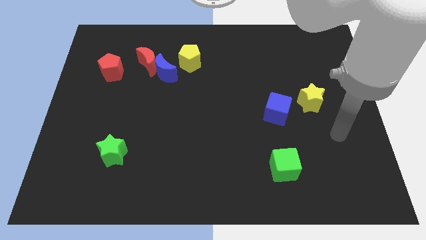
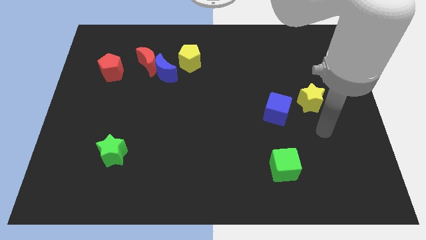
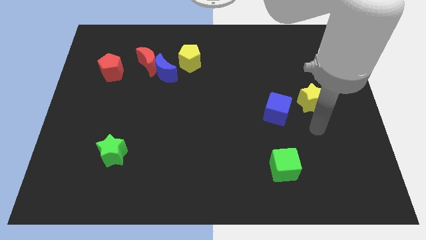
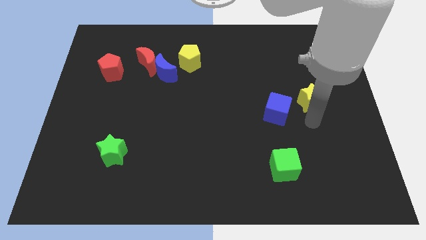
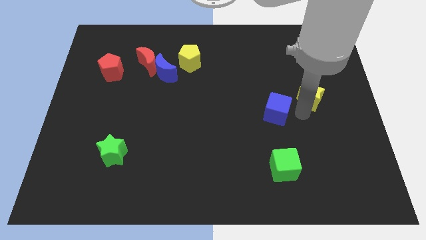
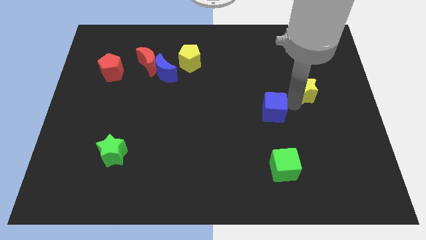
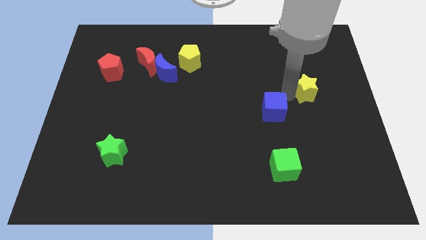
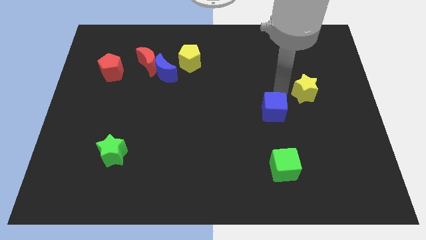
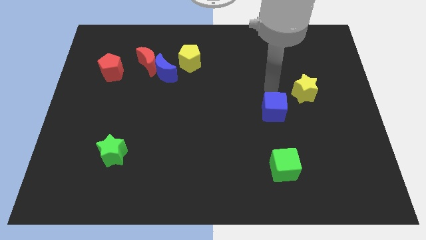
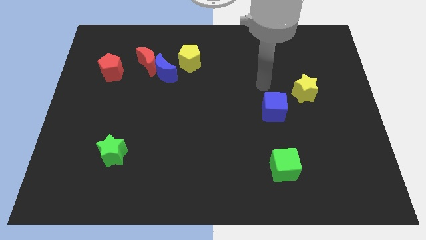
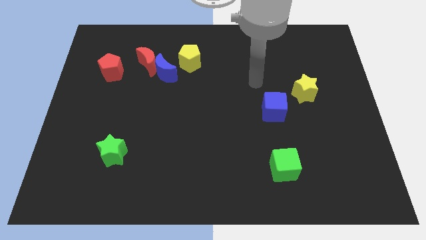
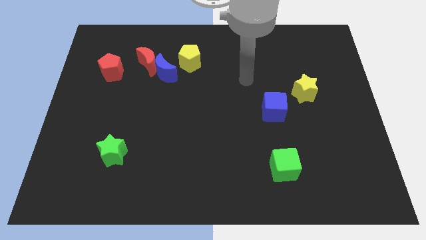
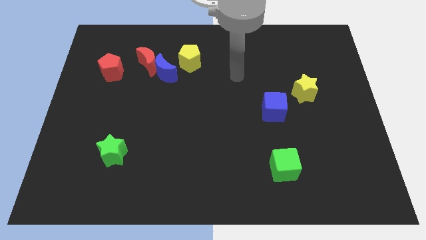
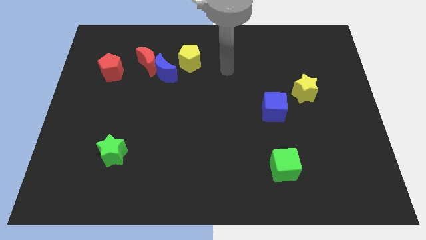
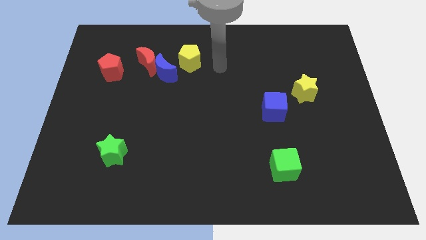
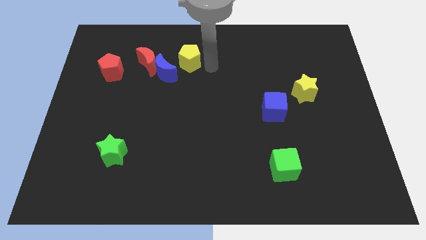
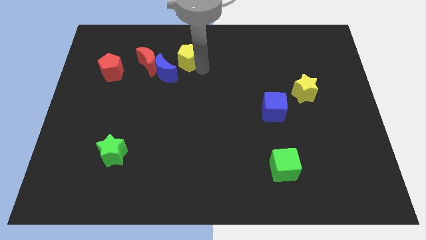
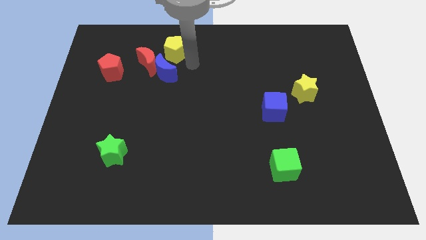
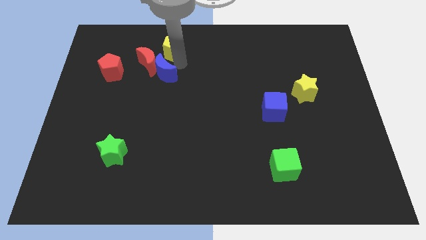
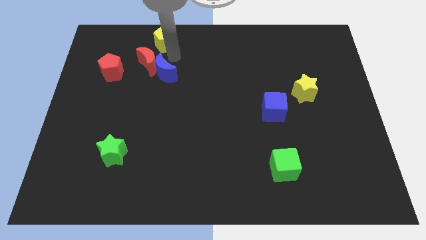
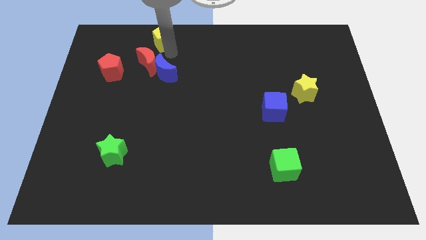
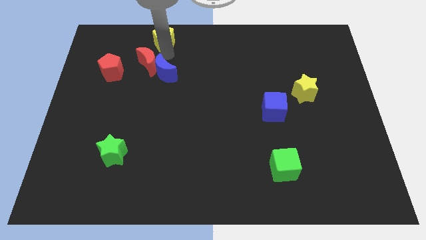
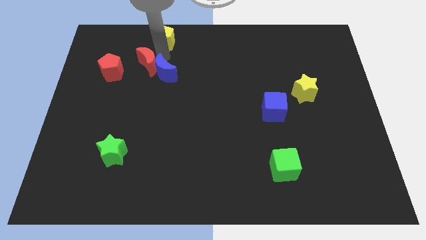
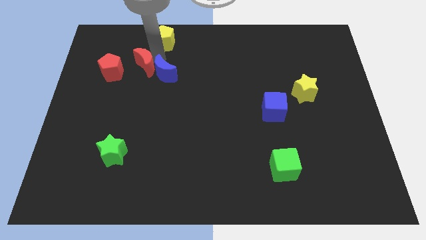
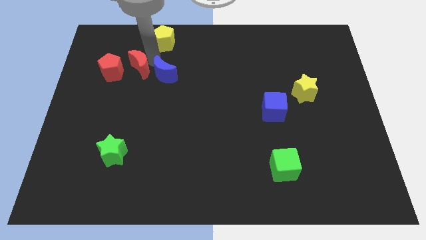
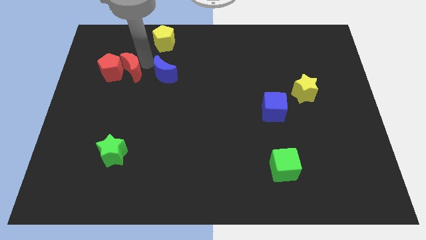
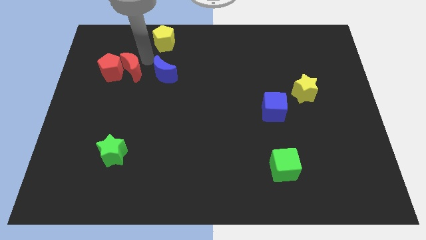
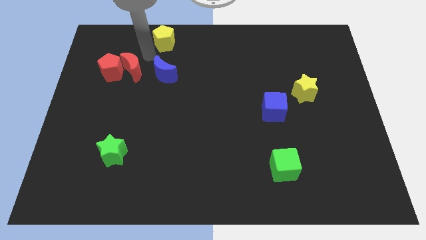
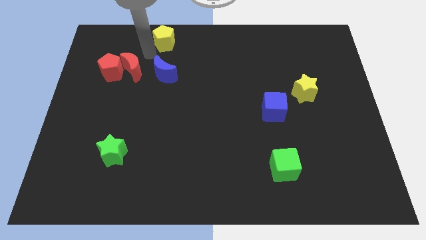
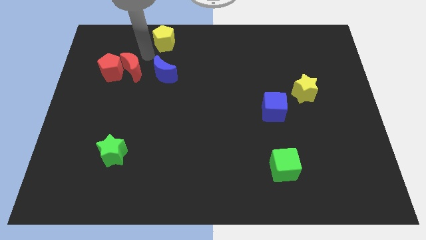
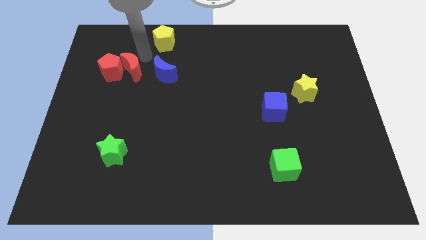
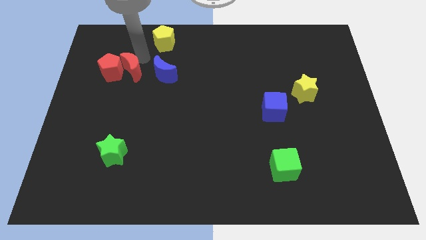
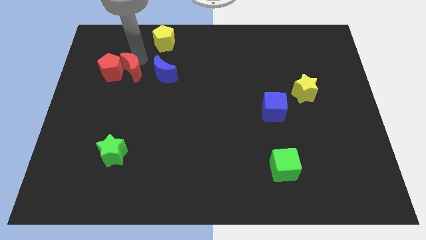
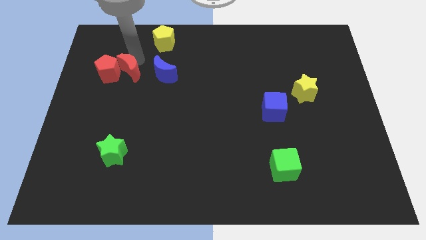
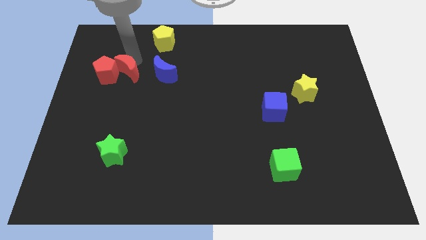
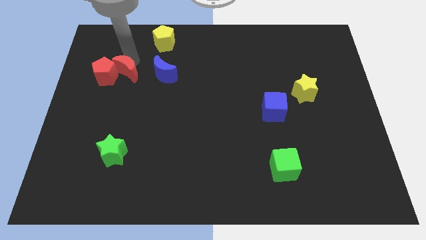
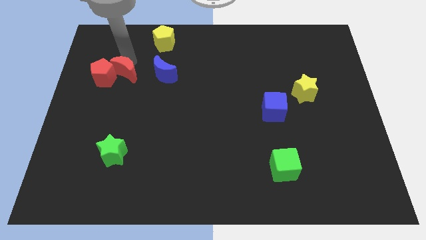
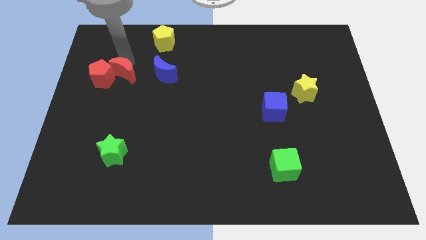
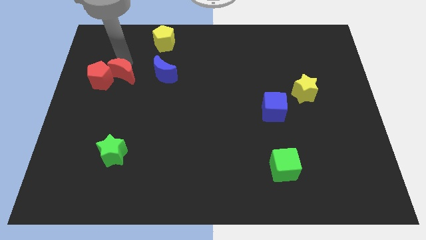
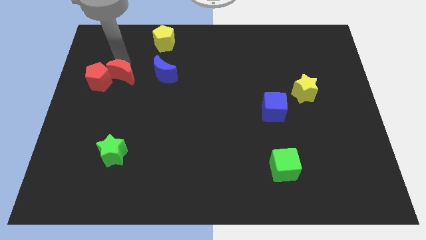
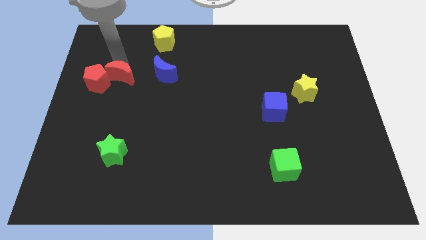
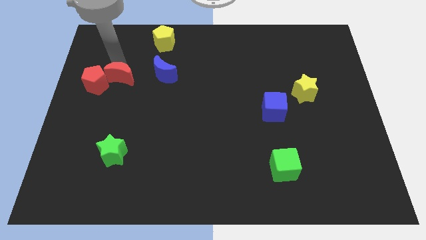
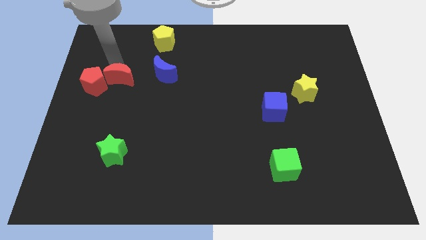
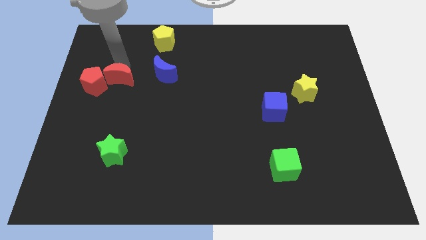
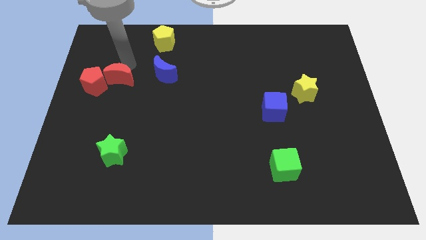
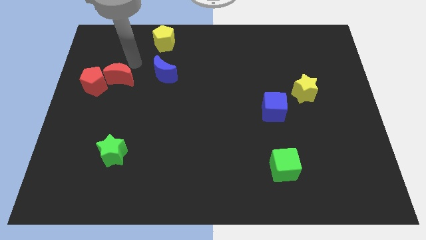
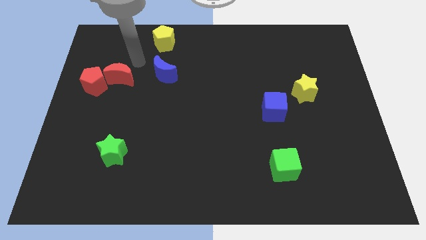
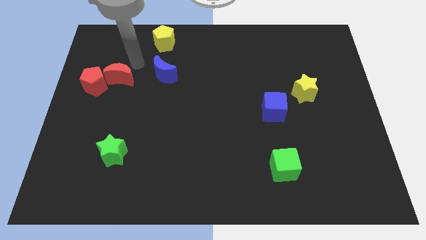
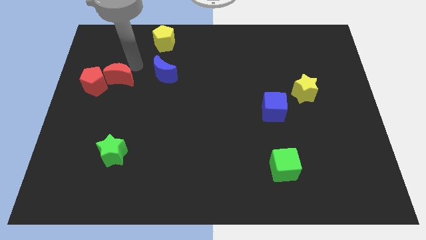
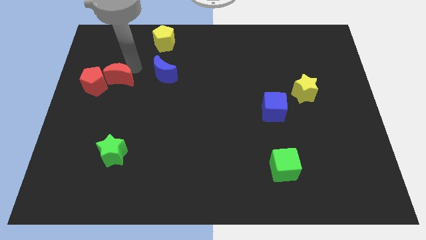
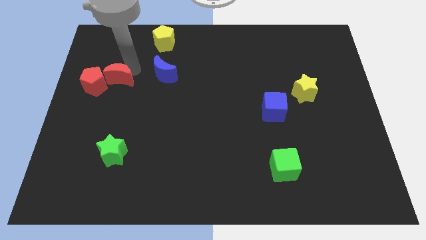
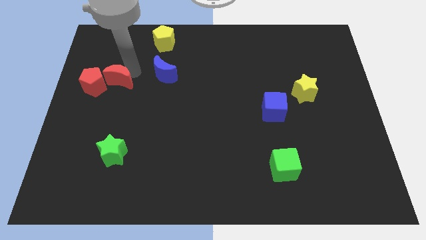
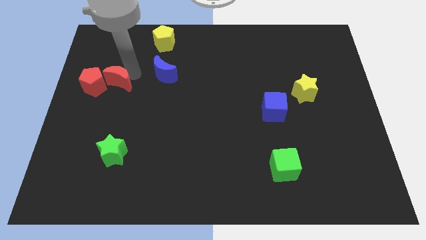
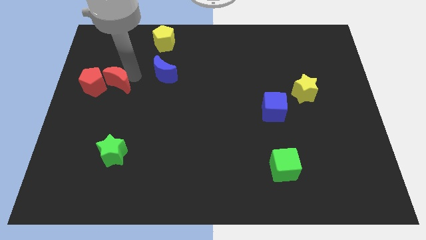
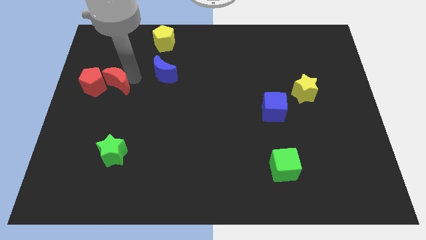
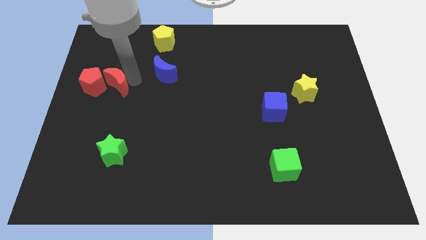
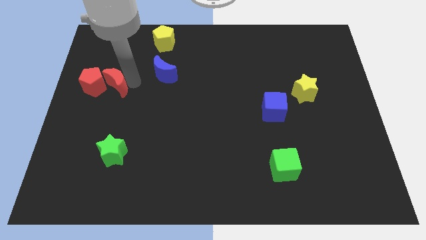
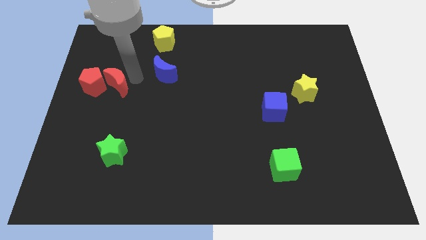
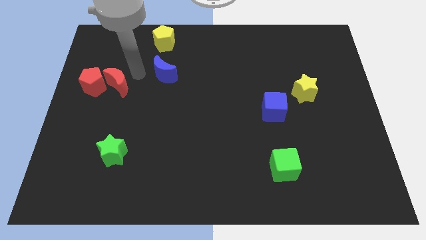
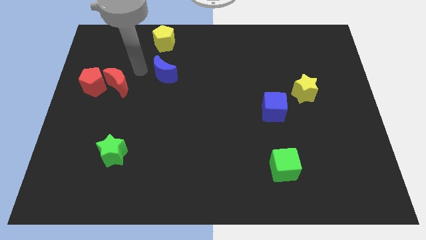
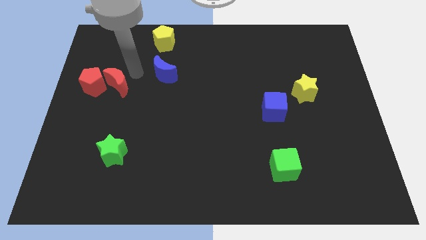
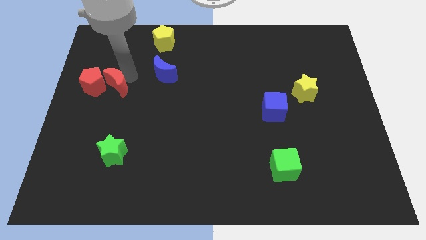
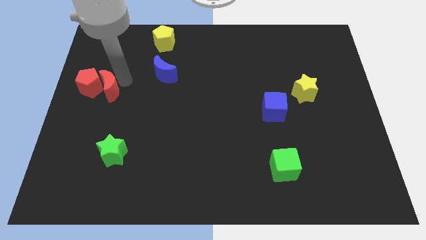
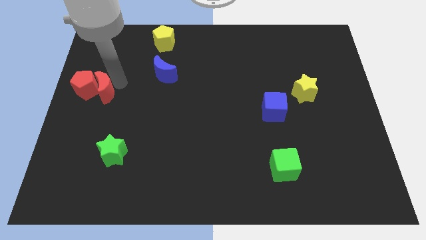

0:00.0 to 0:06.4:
push the red moon to the left side of the board
